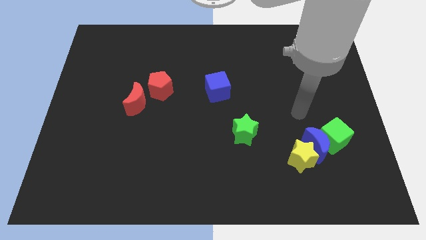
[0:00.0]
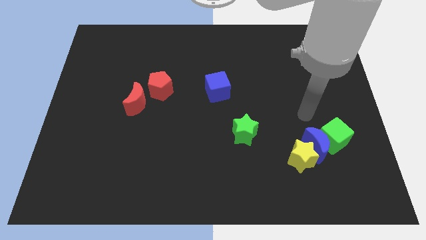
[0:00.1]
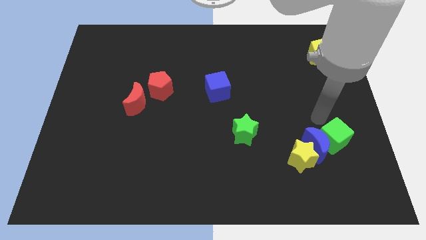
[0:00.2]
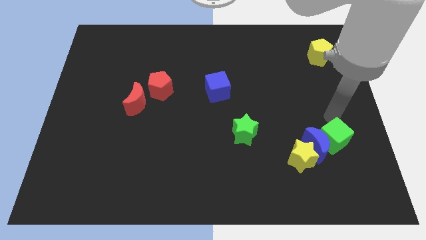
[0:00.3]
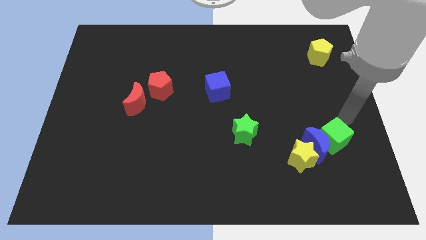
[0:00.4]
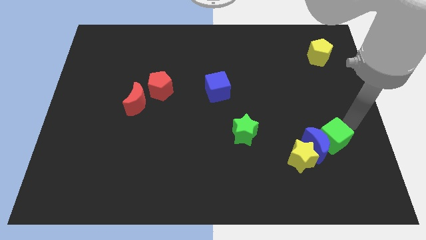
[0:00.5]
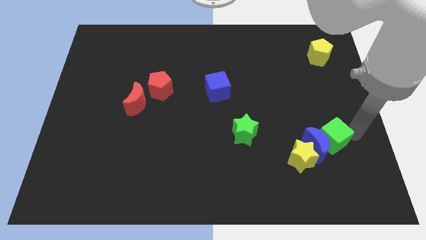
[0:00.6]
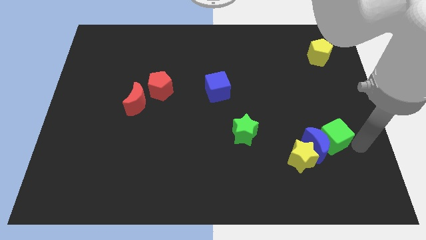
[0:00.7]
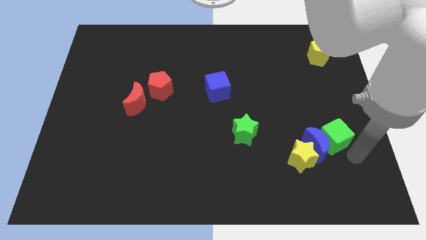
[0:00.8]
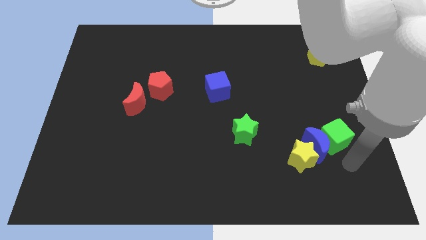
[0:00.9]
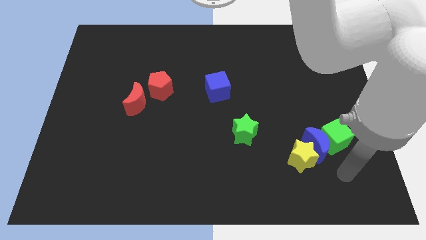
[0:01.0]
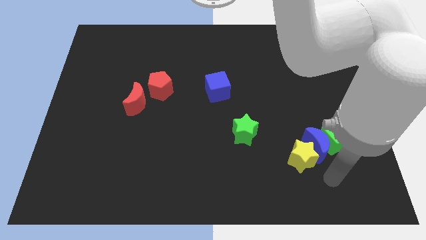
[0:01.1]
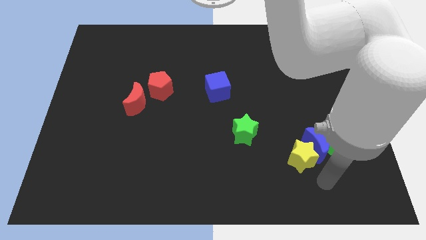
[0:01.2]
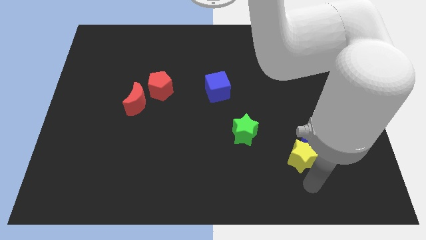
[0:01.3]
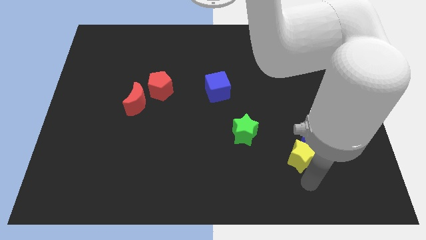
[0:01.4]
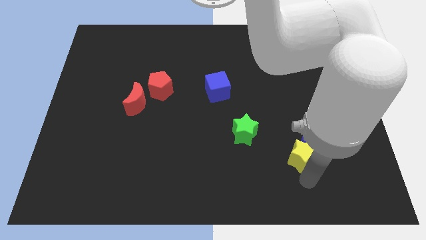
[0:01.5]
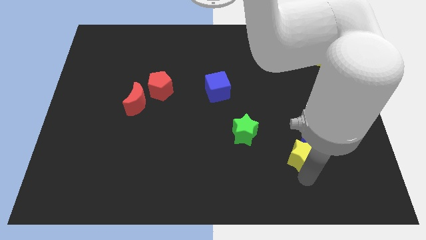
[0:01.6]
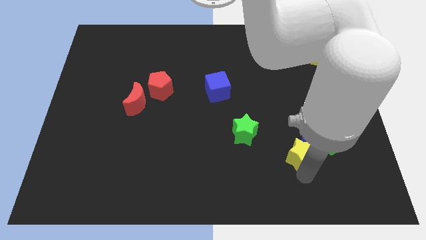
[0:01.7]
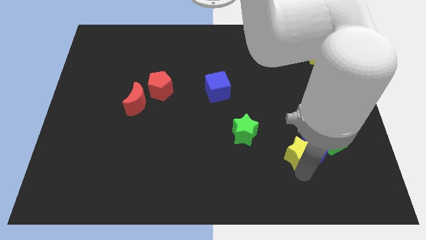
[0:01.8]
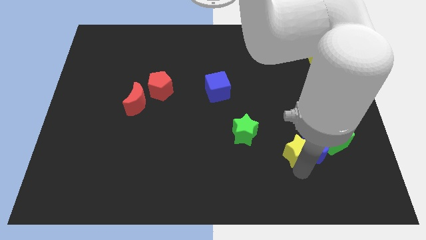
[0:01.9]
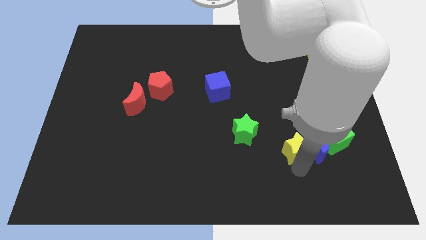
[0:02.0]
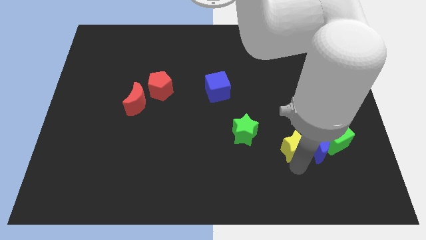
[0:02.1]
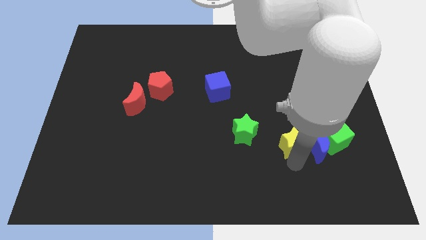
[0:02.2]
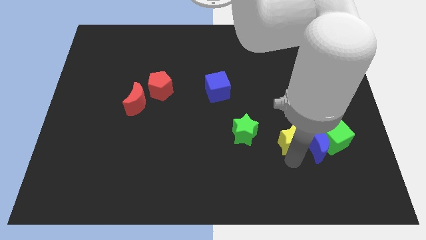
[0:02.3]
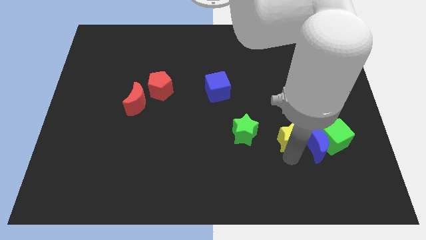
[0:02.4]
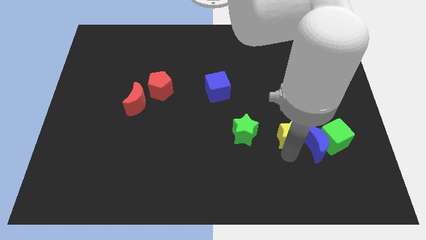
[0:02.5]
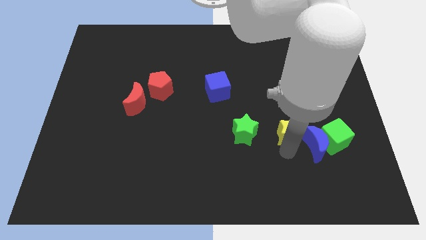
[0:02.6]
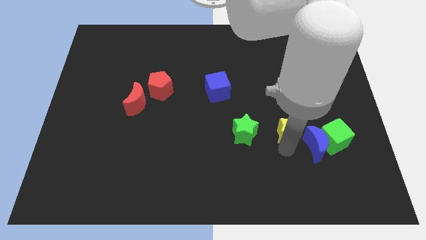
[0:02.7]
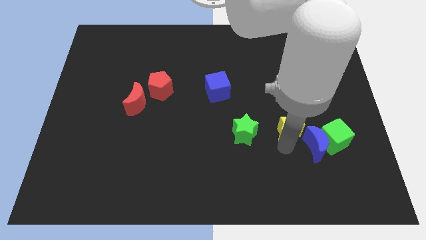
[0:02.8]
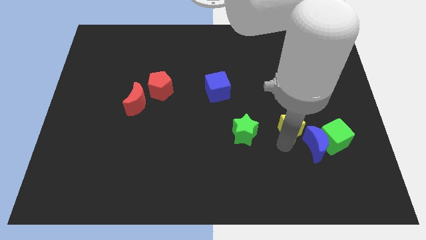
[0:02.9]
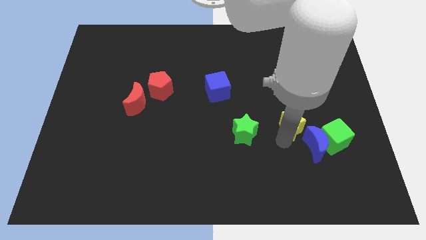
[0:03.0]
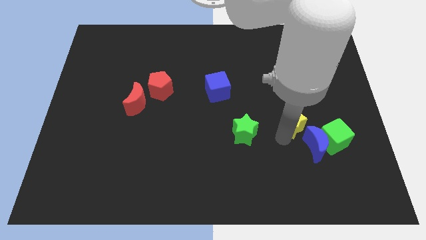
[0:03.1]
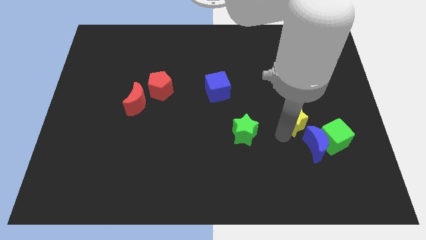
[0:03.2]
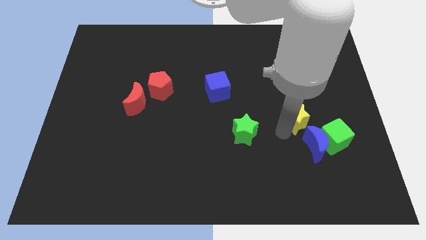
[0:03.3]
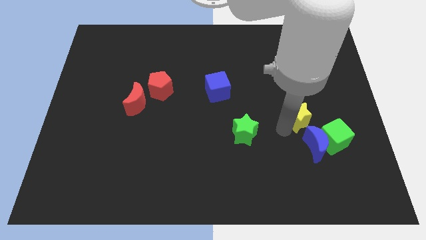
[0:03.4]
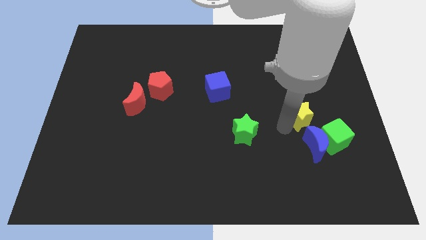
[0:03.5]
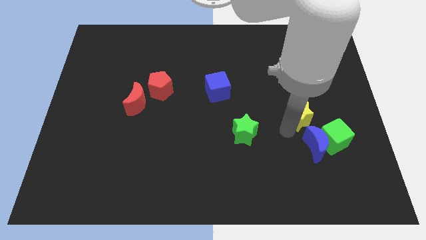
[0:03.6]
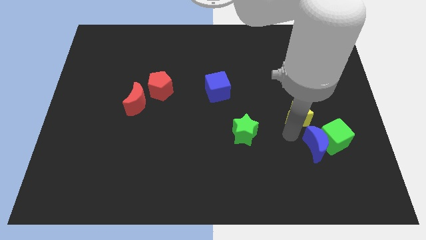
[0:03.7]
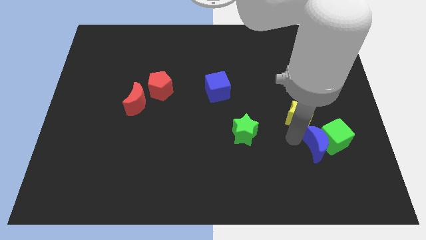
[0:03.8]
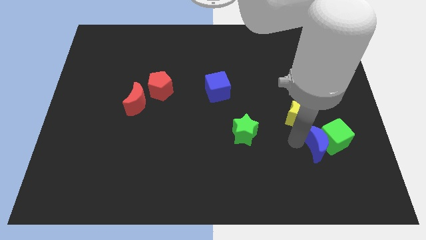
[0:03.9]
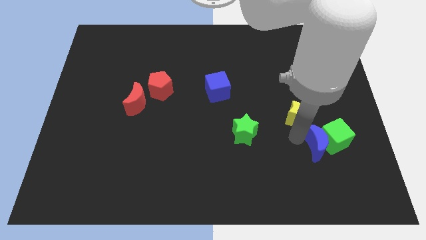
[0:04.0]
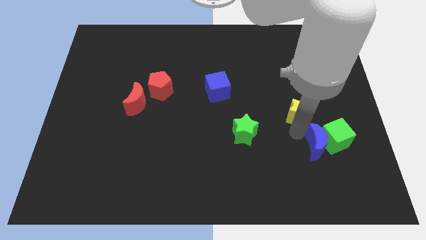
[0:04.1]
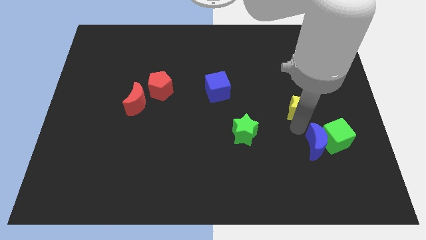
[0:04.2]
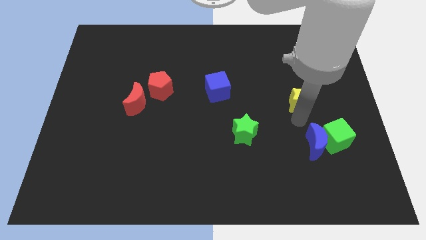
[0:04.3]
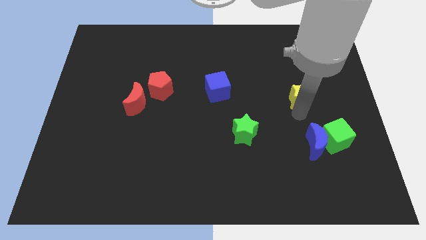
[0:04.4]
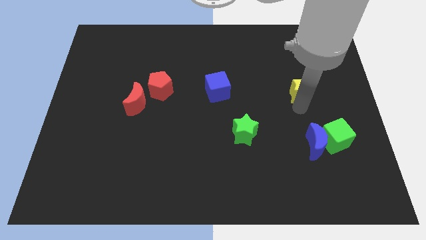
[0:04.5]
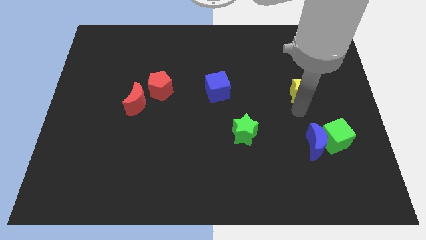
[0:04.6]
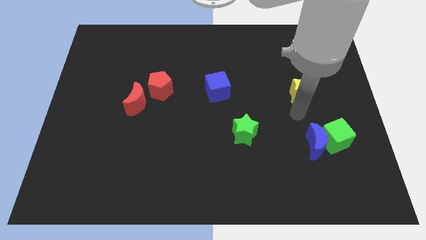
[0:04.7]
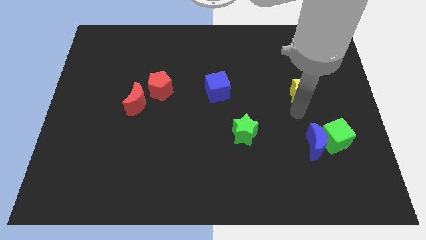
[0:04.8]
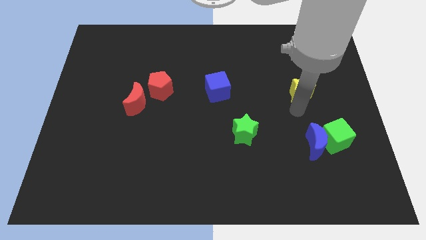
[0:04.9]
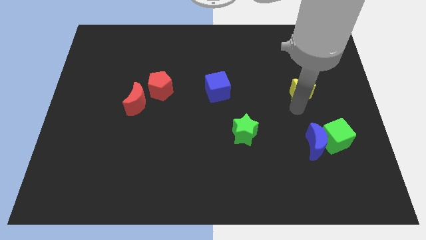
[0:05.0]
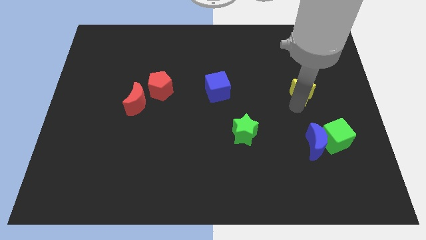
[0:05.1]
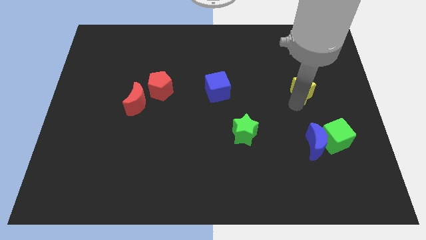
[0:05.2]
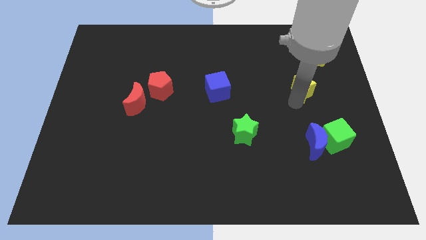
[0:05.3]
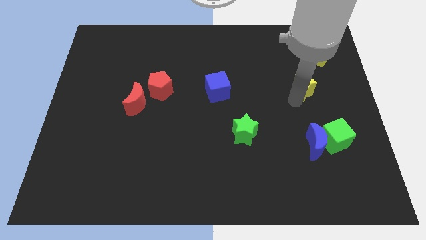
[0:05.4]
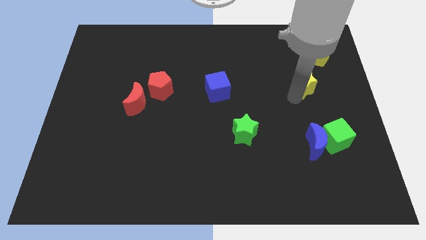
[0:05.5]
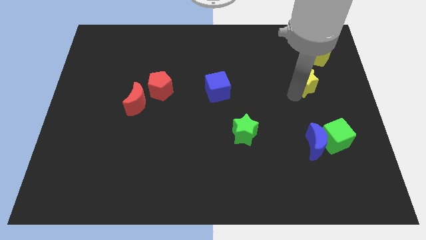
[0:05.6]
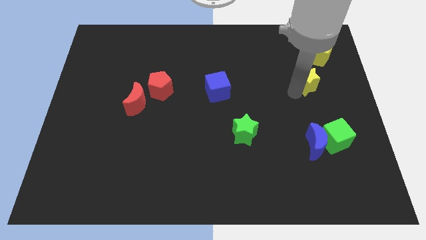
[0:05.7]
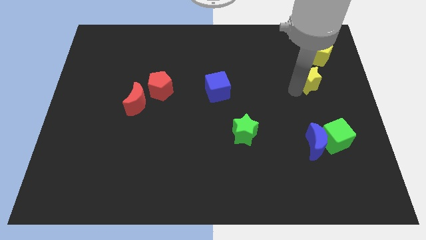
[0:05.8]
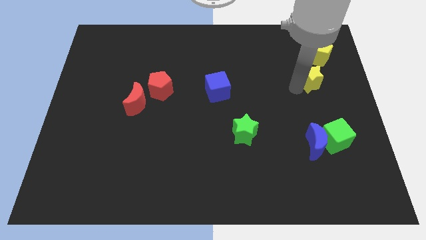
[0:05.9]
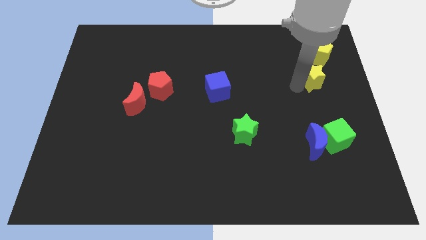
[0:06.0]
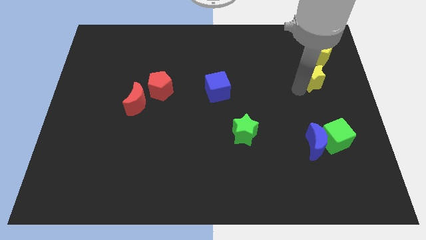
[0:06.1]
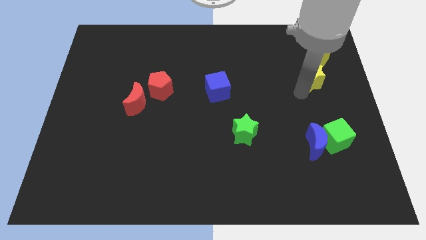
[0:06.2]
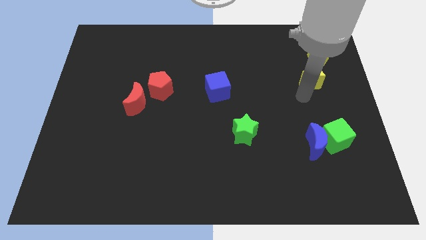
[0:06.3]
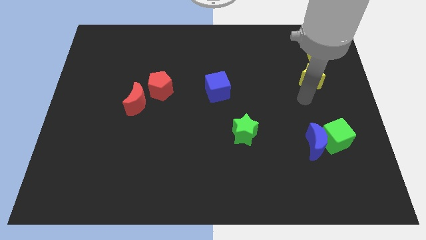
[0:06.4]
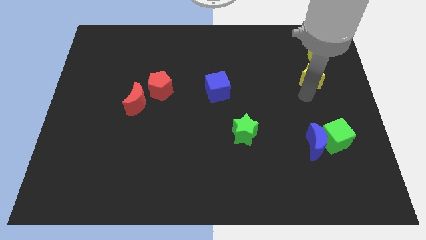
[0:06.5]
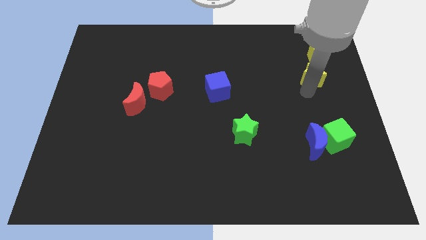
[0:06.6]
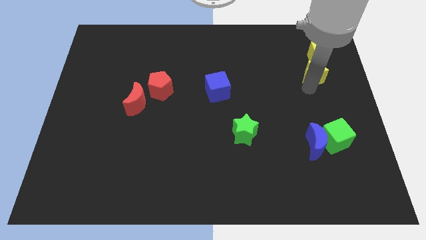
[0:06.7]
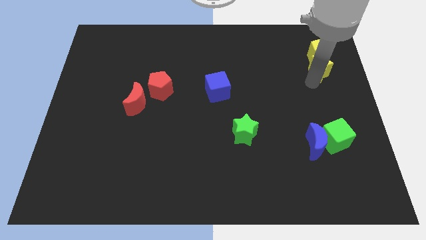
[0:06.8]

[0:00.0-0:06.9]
move the yellow star next to the yellow pentagon
